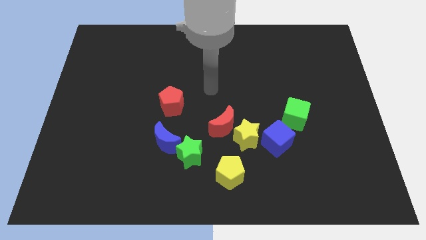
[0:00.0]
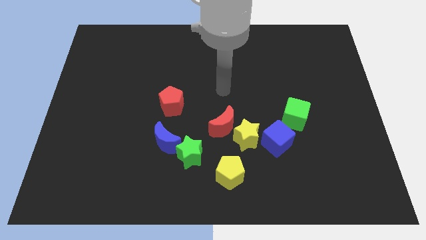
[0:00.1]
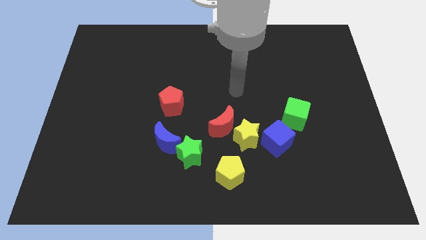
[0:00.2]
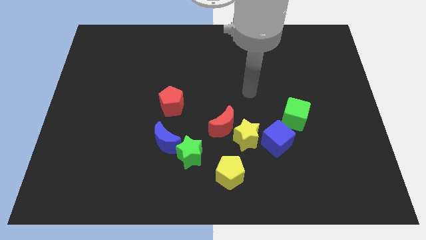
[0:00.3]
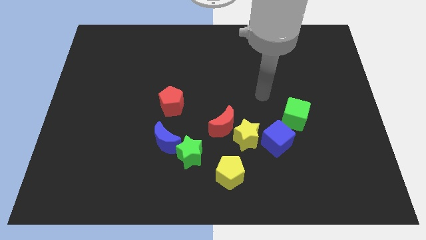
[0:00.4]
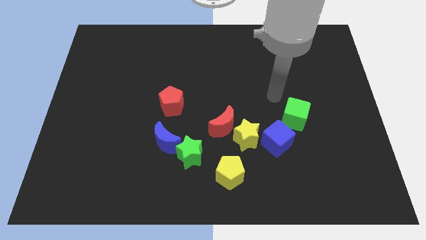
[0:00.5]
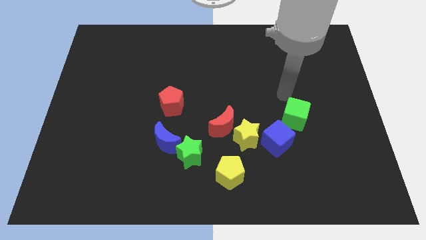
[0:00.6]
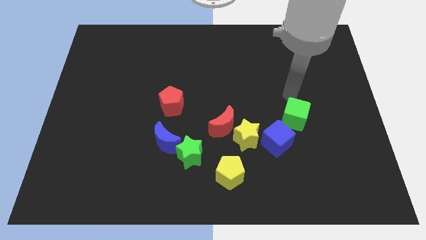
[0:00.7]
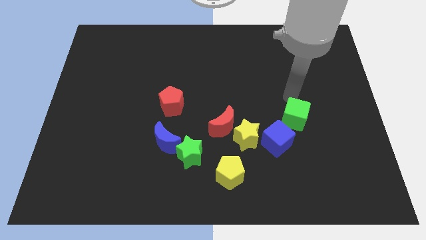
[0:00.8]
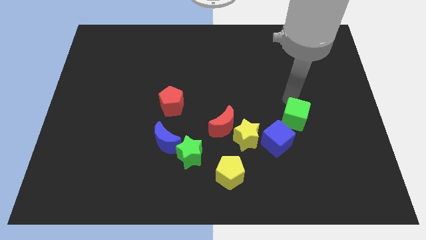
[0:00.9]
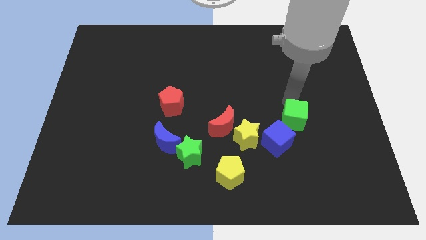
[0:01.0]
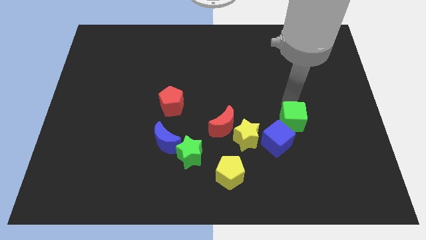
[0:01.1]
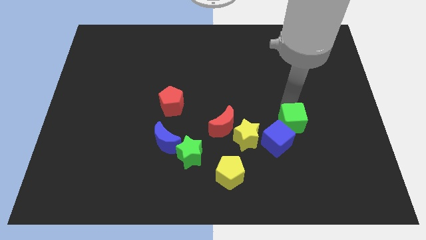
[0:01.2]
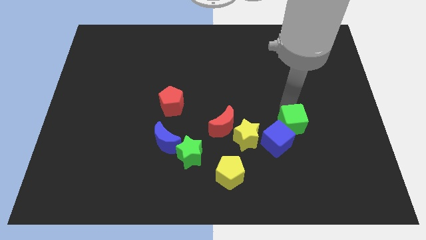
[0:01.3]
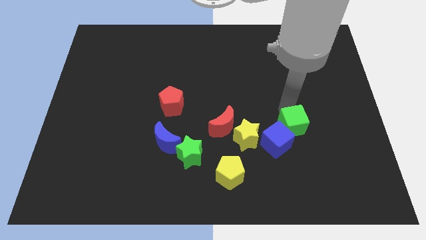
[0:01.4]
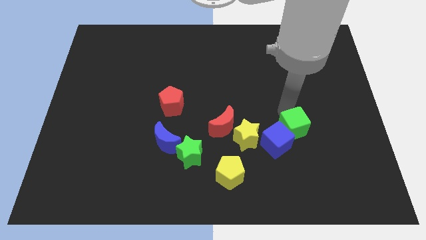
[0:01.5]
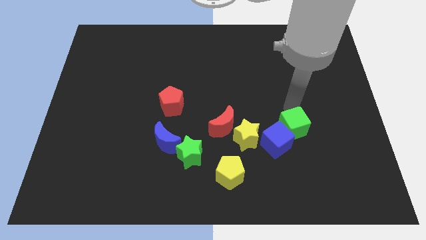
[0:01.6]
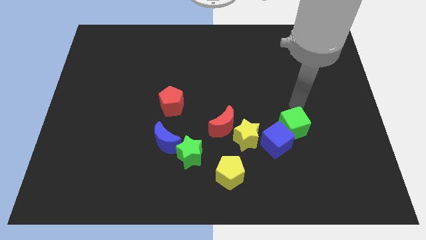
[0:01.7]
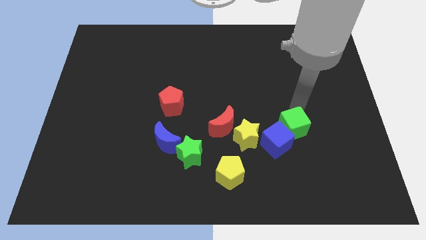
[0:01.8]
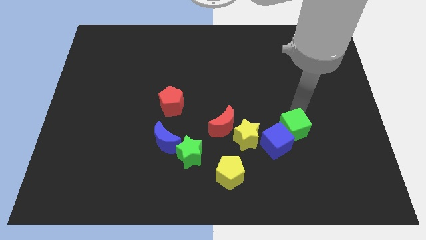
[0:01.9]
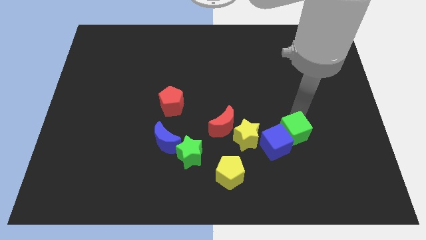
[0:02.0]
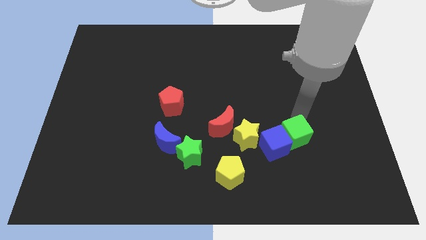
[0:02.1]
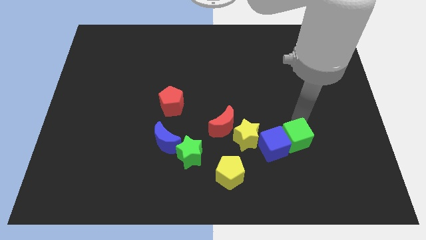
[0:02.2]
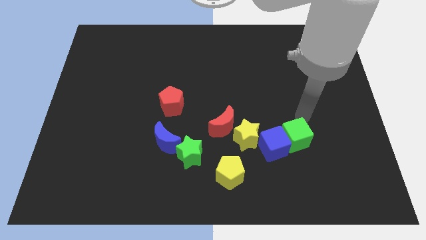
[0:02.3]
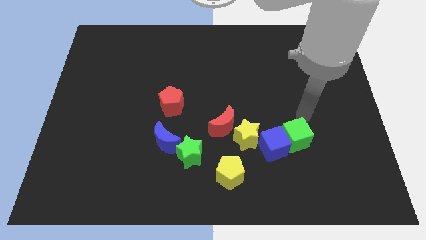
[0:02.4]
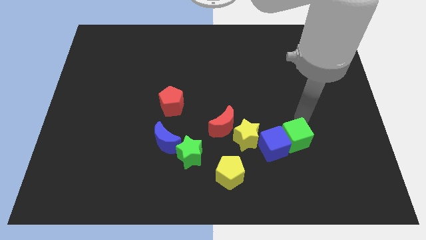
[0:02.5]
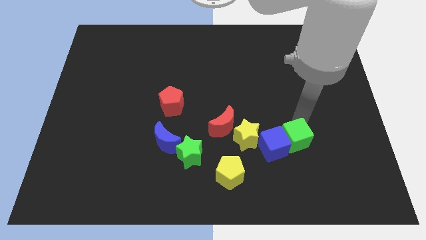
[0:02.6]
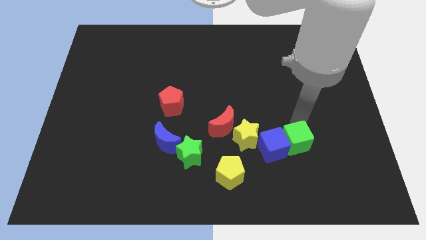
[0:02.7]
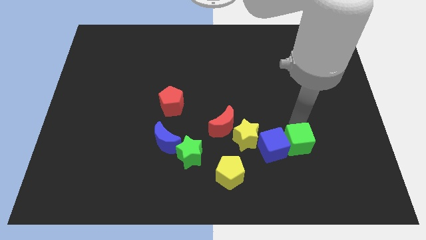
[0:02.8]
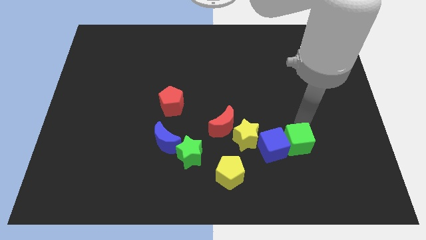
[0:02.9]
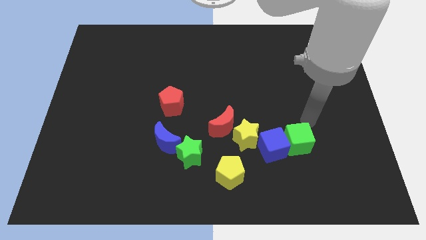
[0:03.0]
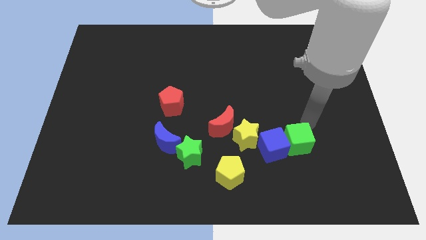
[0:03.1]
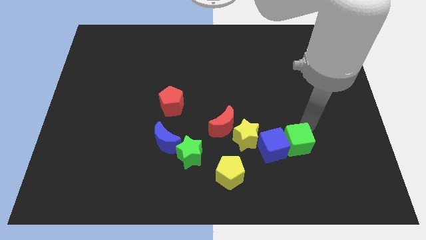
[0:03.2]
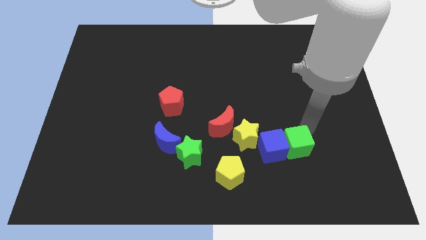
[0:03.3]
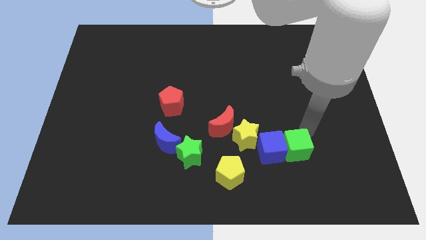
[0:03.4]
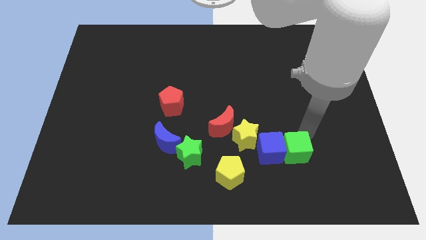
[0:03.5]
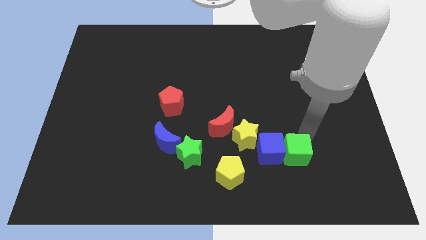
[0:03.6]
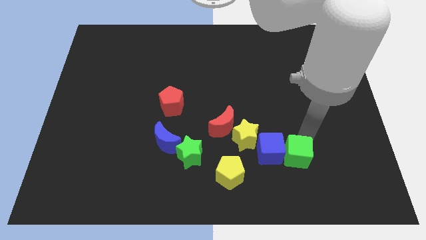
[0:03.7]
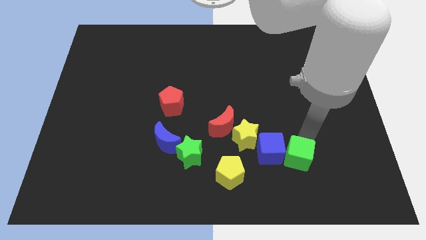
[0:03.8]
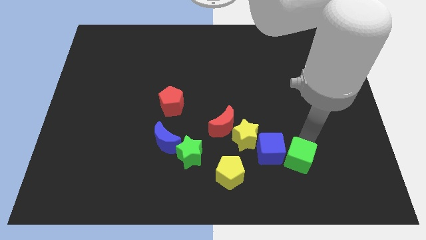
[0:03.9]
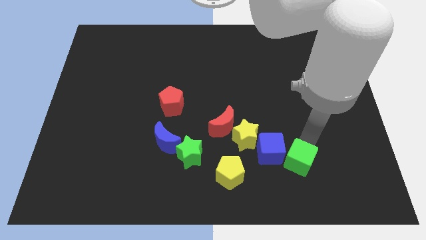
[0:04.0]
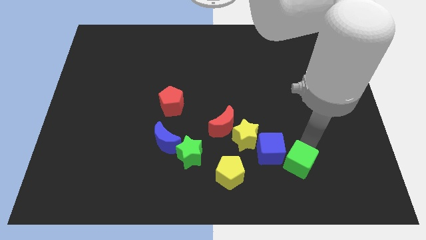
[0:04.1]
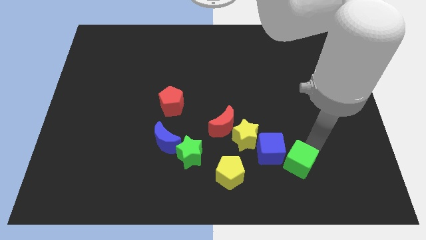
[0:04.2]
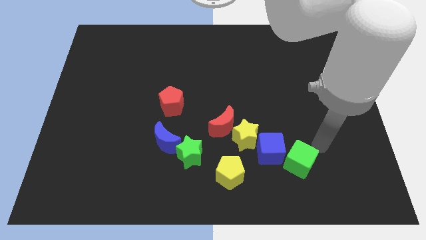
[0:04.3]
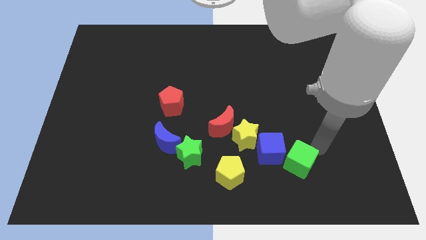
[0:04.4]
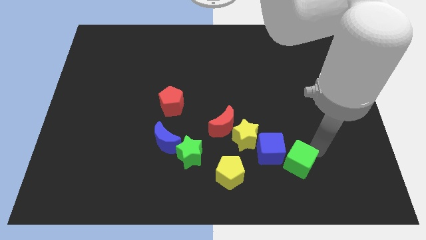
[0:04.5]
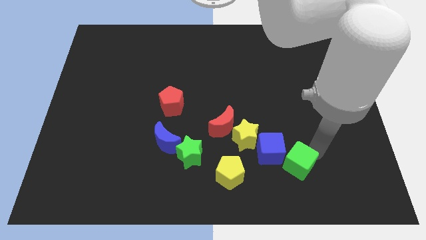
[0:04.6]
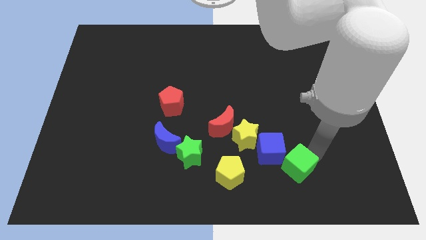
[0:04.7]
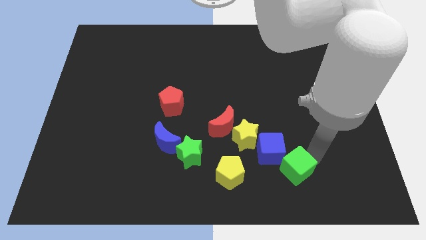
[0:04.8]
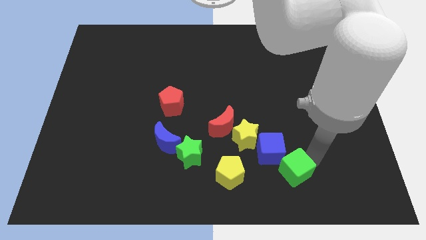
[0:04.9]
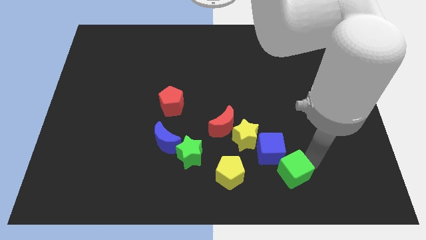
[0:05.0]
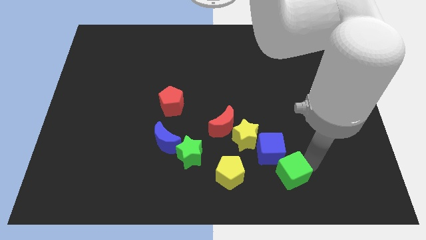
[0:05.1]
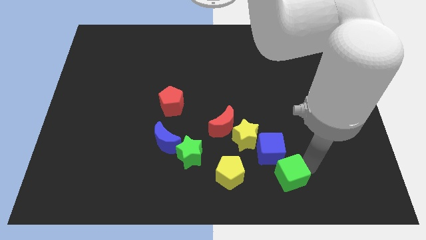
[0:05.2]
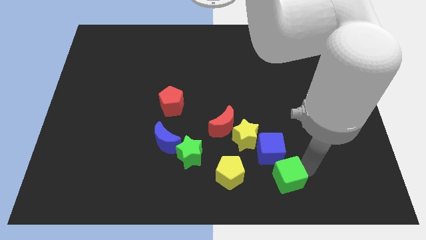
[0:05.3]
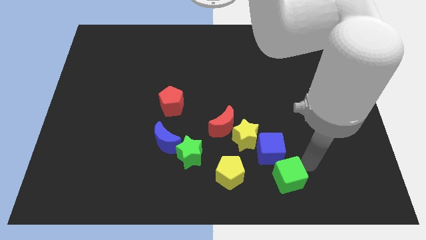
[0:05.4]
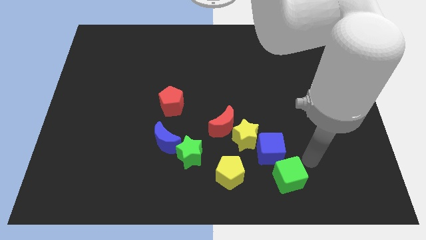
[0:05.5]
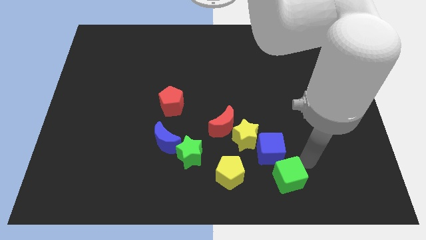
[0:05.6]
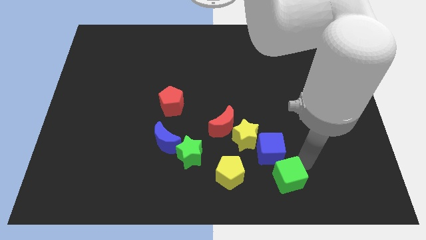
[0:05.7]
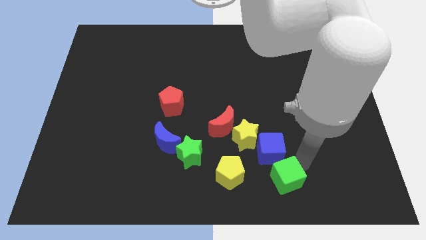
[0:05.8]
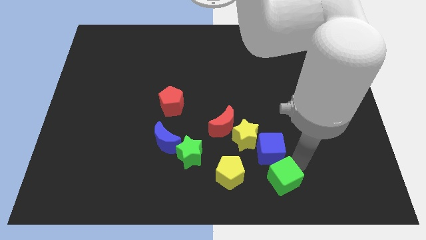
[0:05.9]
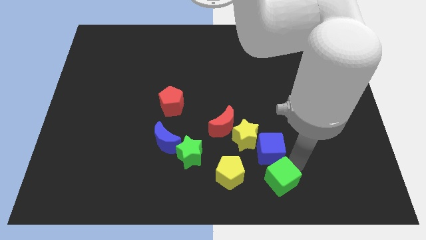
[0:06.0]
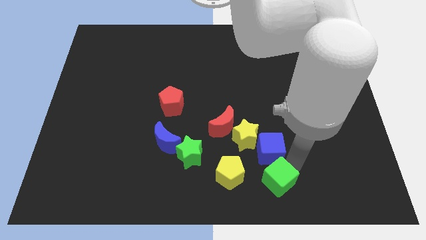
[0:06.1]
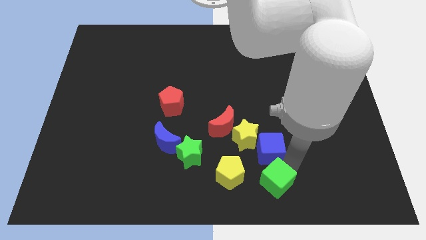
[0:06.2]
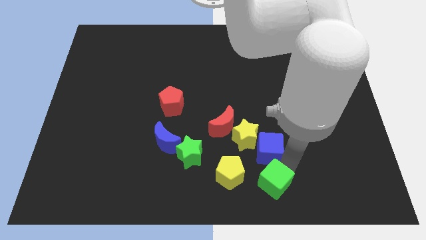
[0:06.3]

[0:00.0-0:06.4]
put the green cube to the bottom

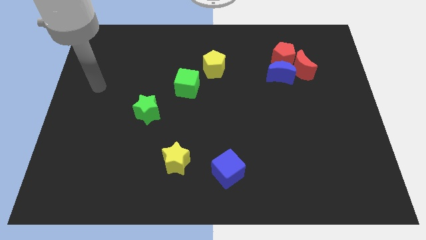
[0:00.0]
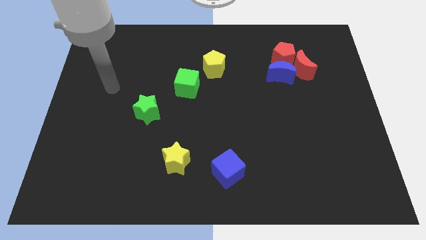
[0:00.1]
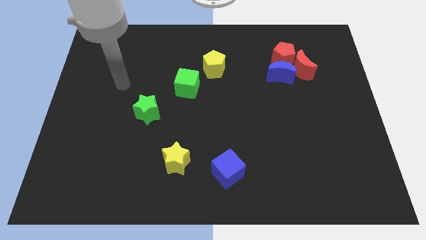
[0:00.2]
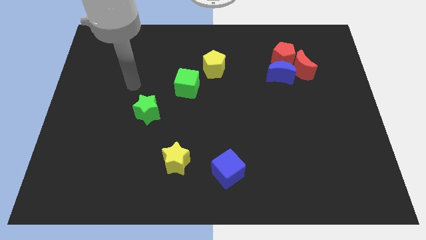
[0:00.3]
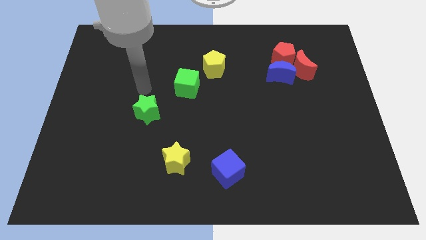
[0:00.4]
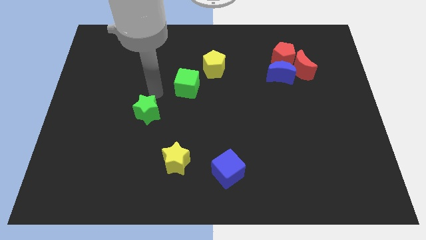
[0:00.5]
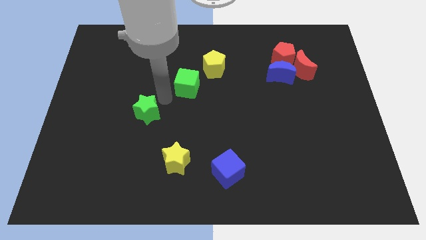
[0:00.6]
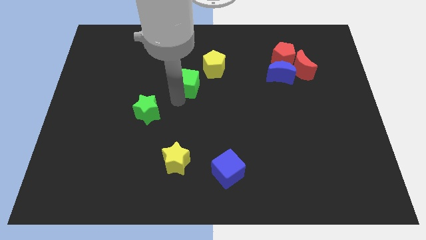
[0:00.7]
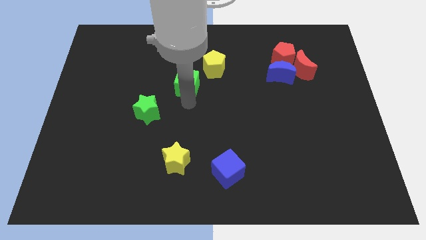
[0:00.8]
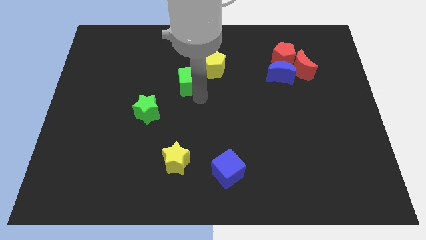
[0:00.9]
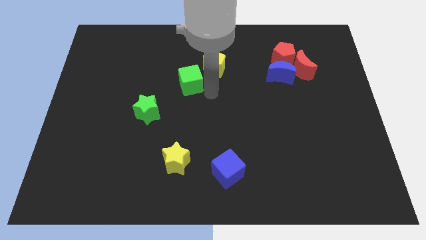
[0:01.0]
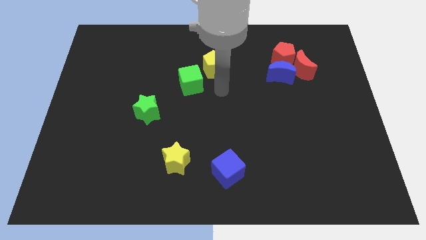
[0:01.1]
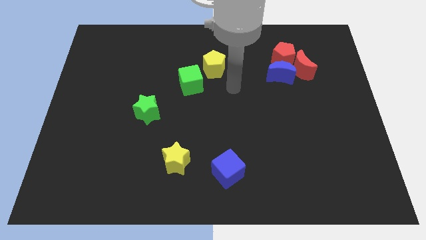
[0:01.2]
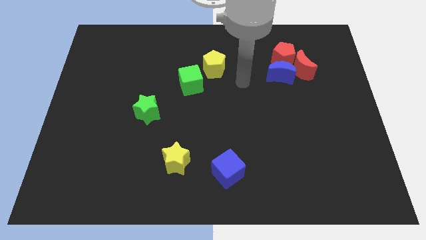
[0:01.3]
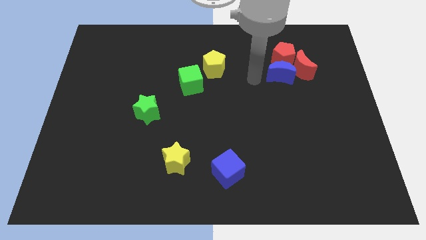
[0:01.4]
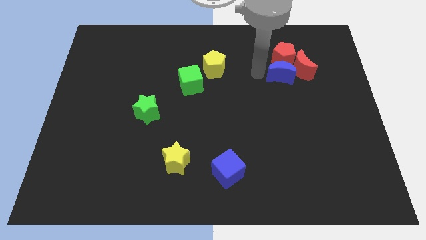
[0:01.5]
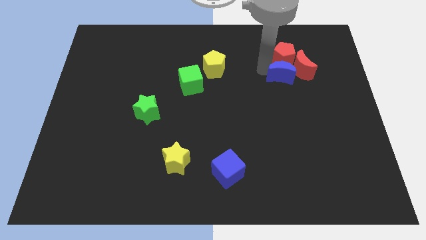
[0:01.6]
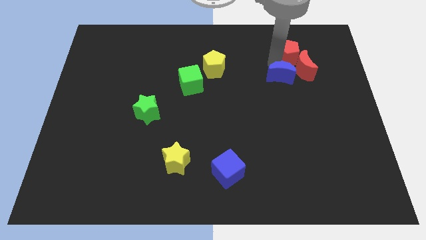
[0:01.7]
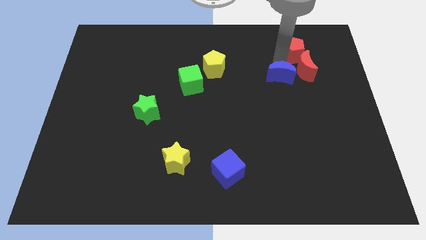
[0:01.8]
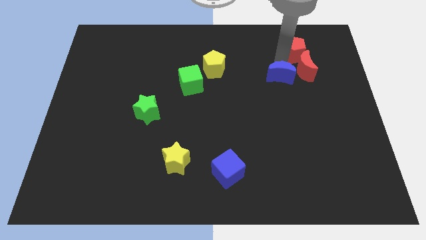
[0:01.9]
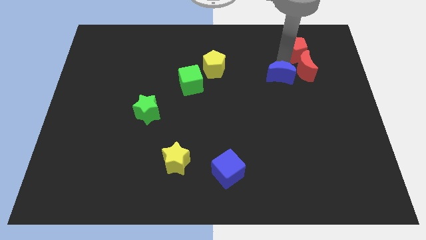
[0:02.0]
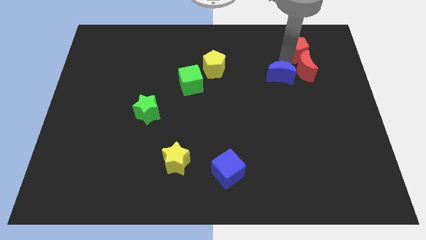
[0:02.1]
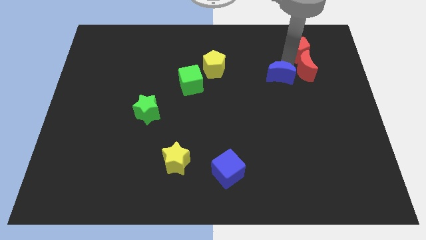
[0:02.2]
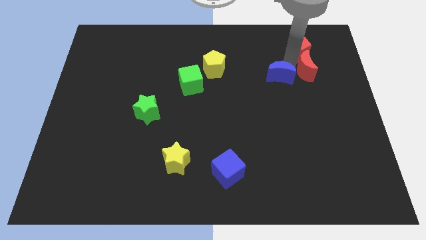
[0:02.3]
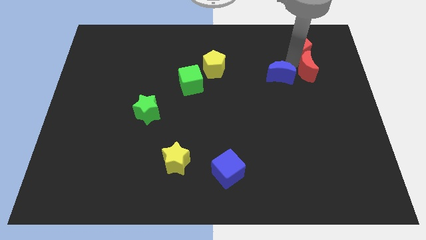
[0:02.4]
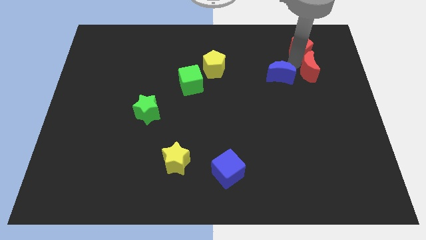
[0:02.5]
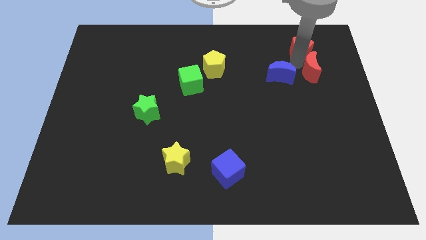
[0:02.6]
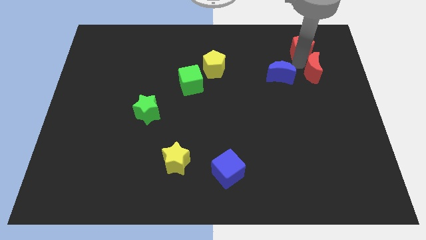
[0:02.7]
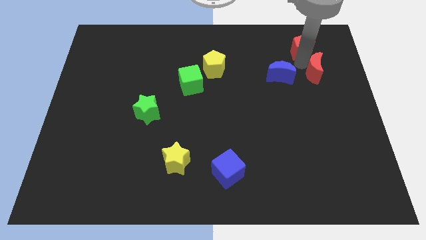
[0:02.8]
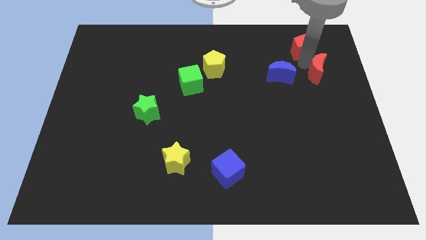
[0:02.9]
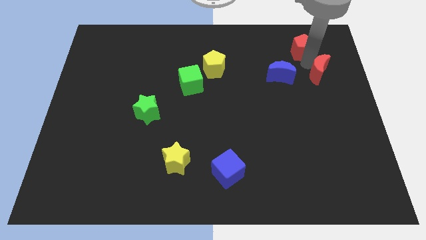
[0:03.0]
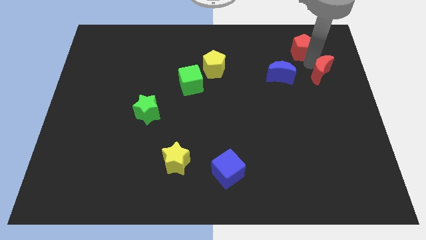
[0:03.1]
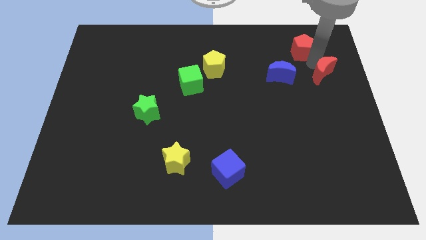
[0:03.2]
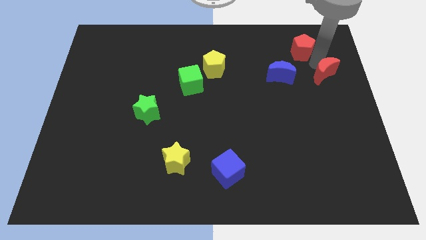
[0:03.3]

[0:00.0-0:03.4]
push the red moon to the right side
